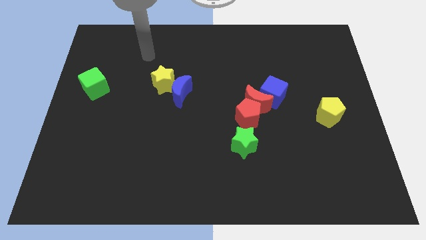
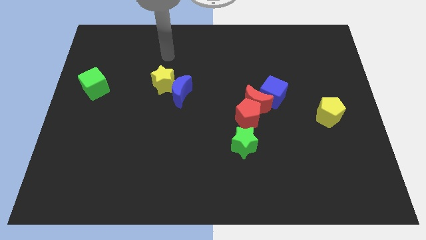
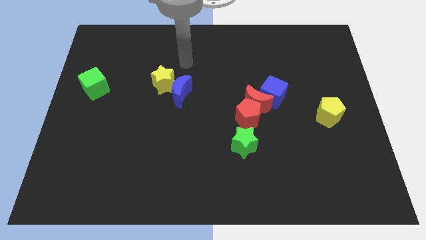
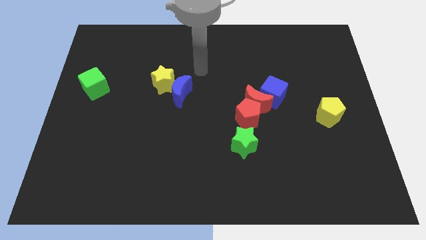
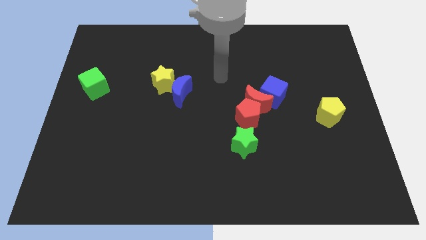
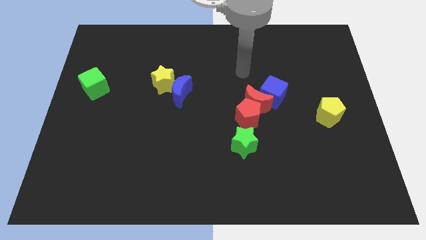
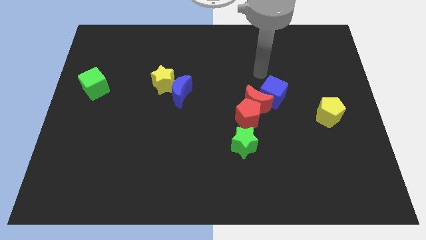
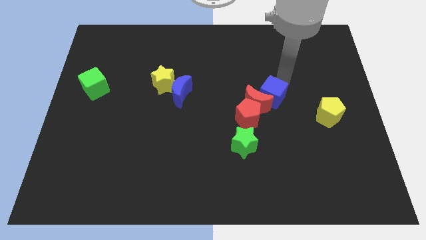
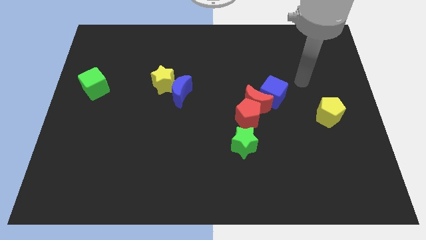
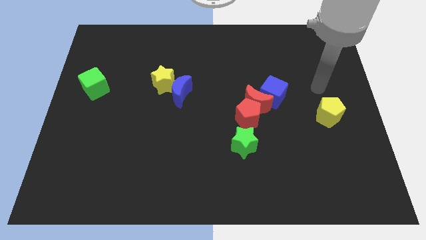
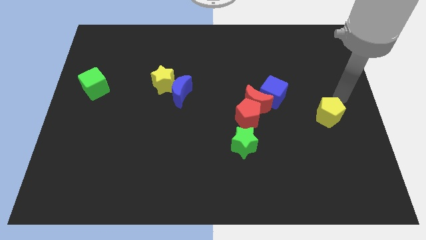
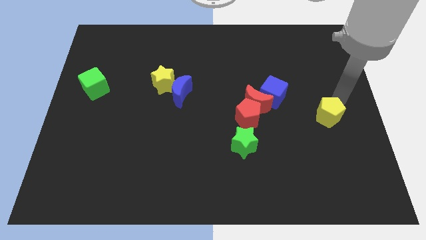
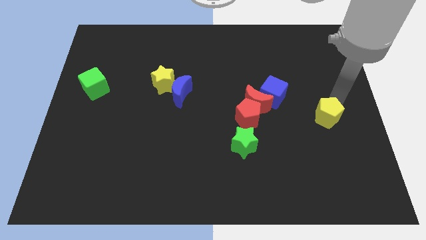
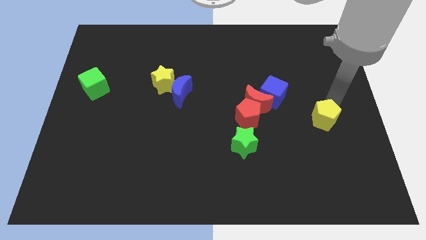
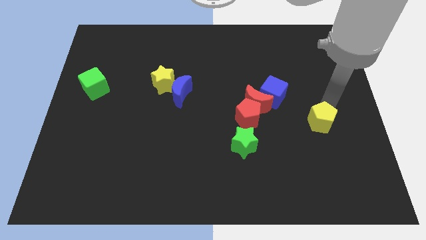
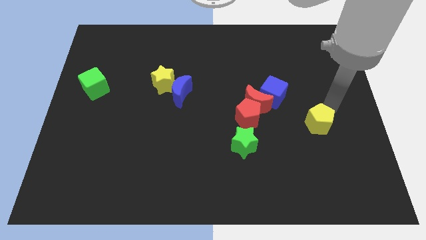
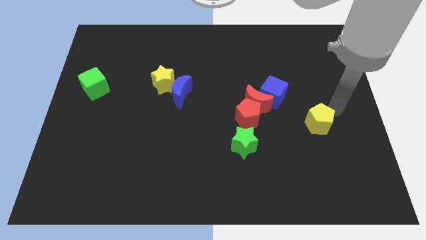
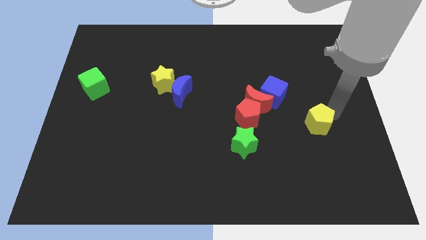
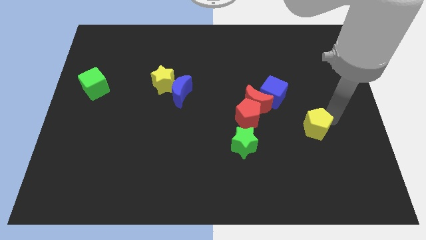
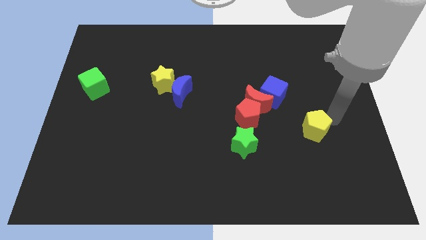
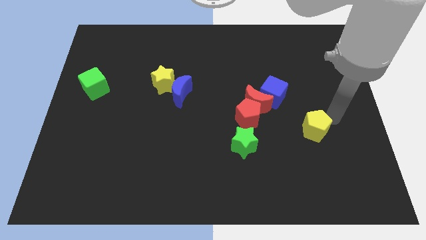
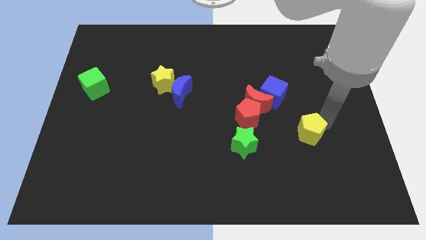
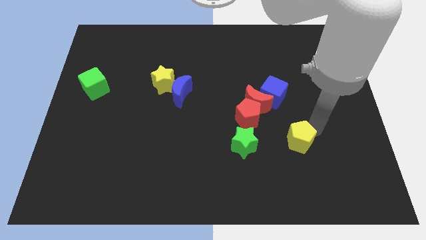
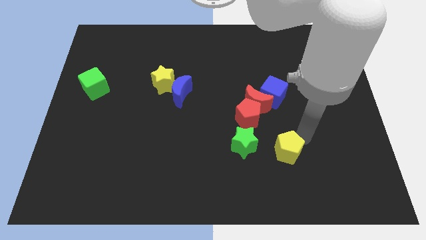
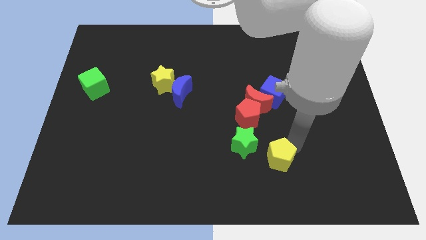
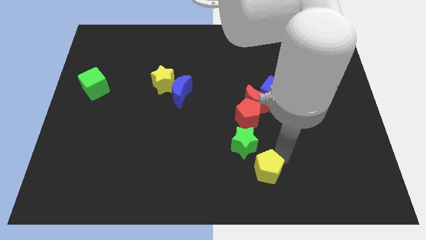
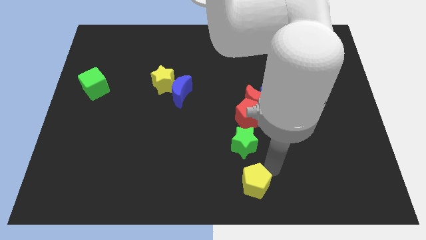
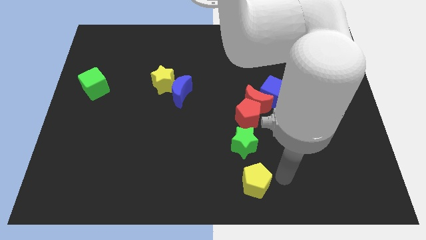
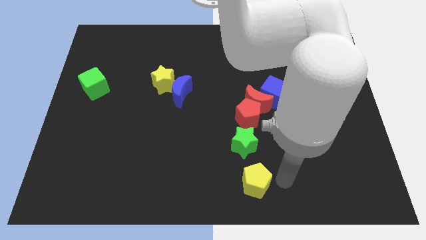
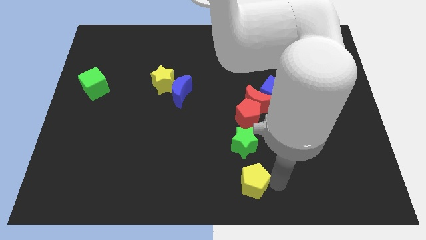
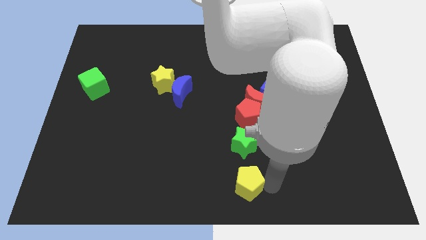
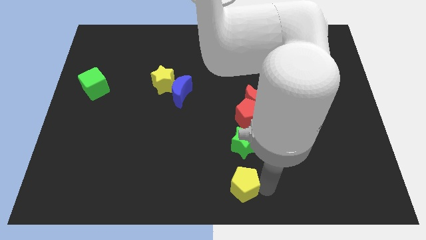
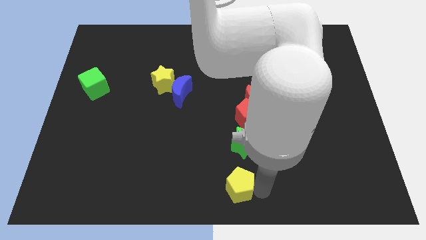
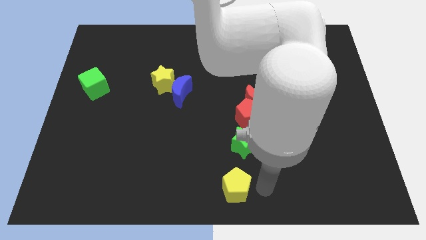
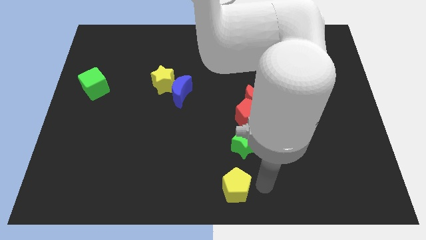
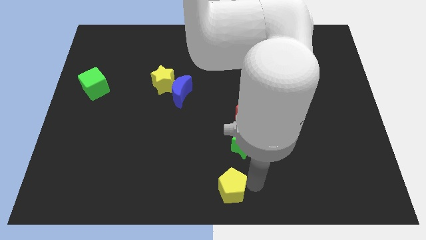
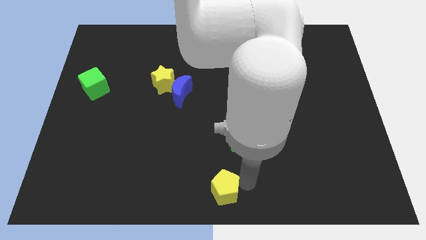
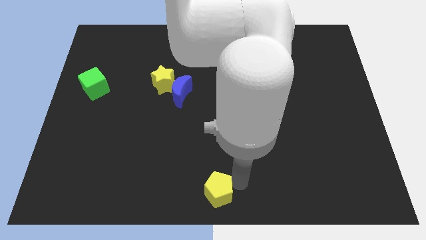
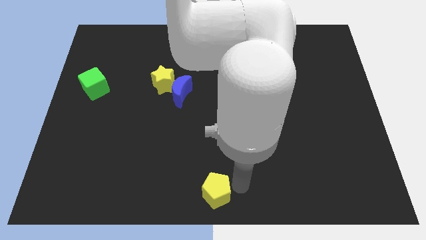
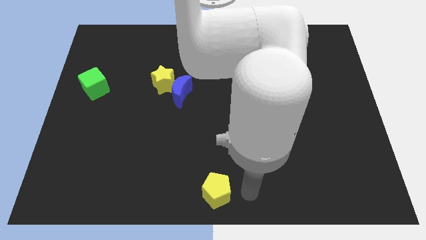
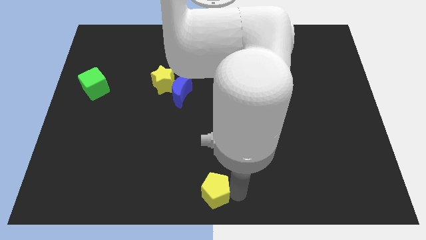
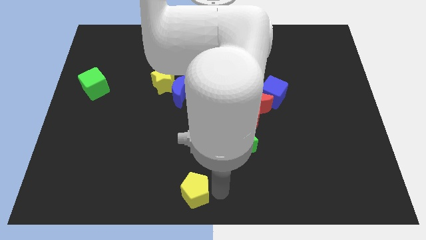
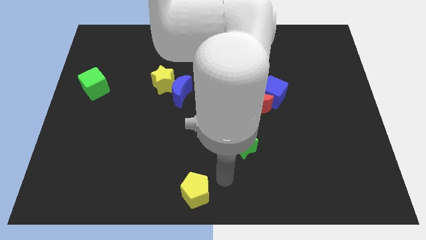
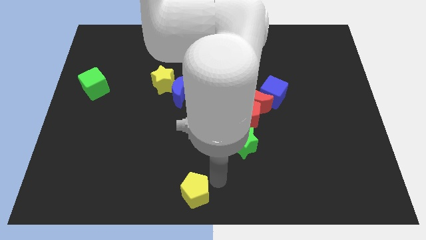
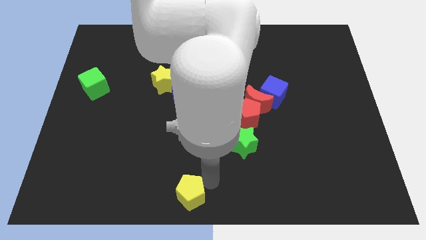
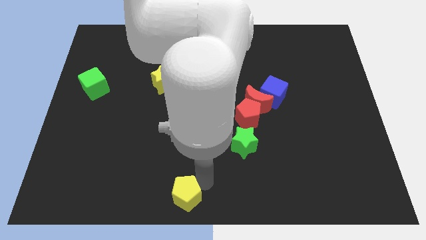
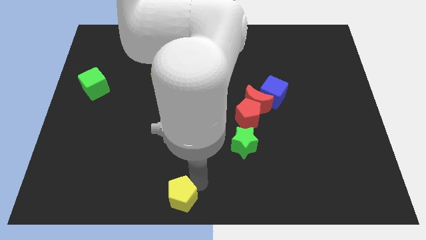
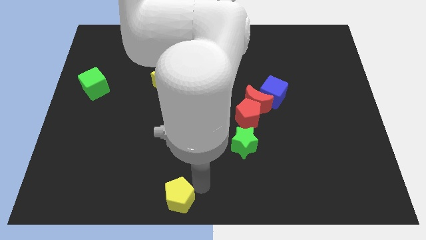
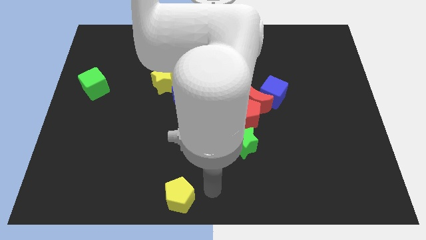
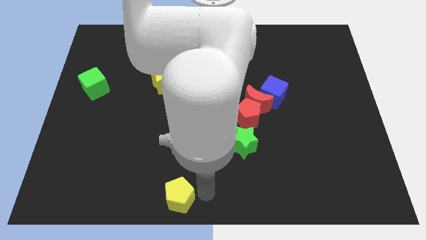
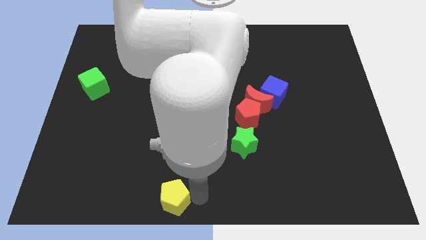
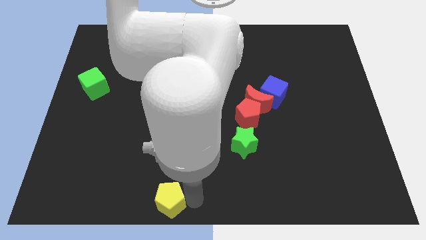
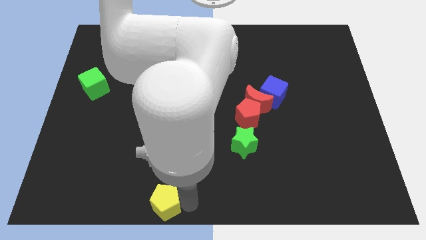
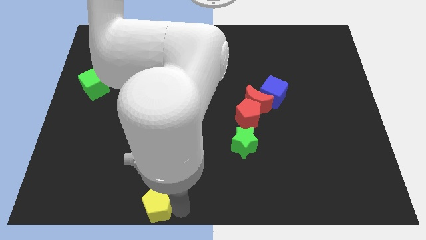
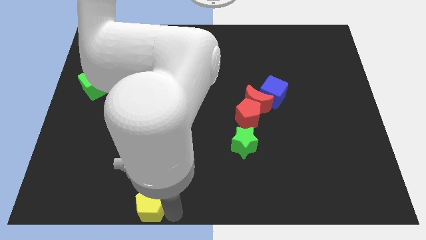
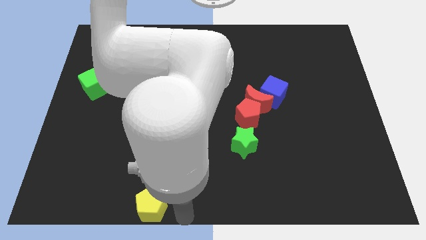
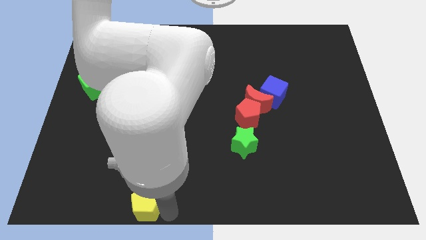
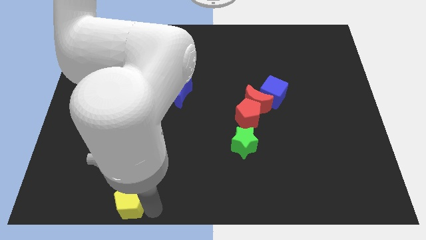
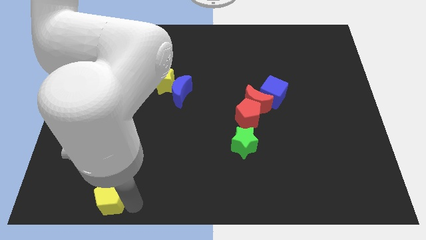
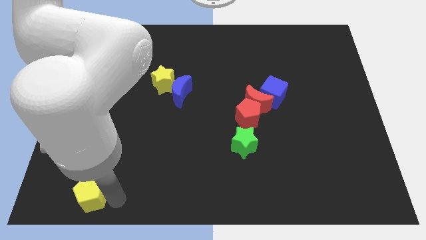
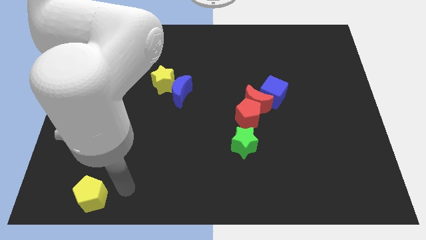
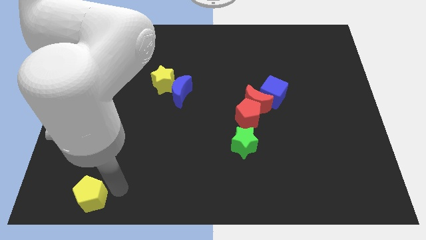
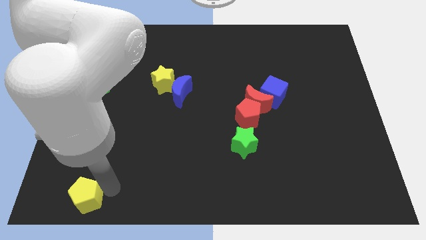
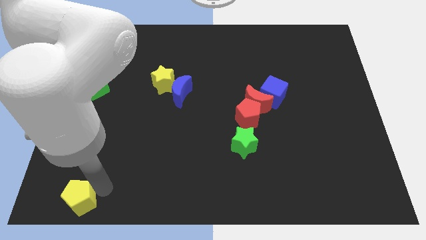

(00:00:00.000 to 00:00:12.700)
slide the yellow pentagon to the lower left corner

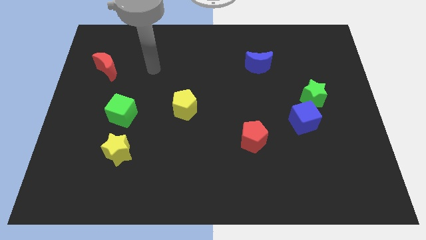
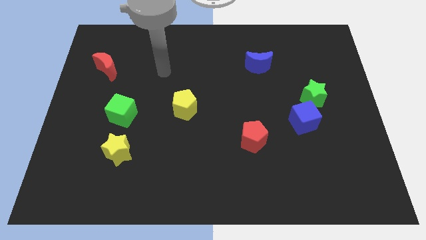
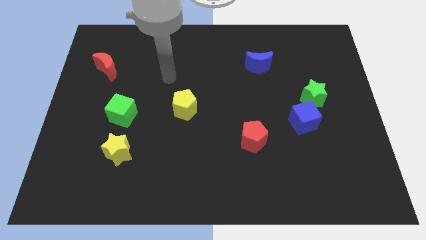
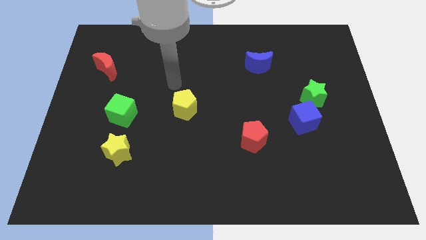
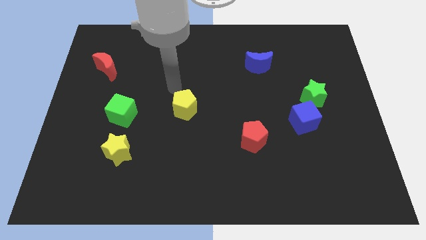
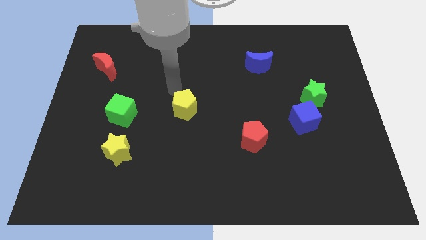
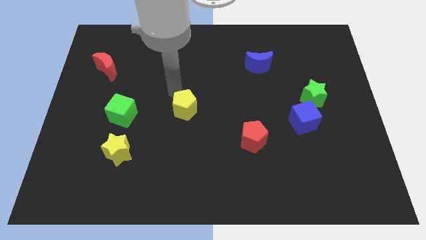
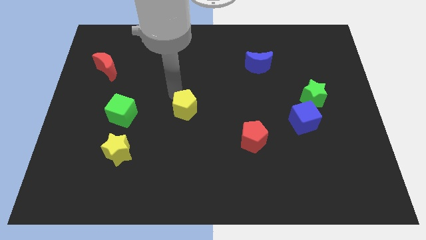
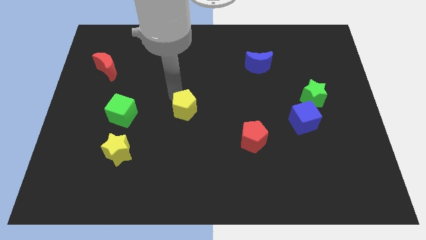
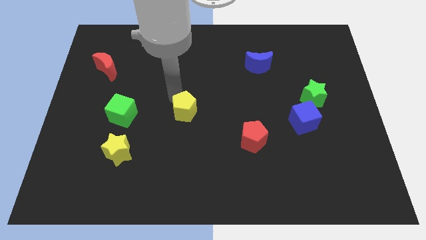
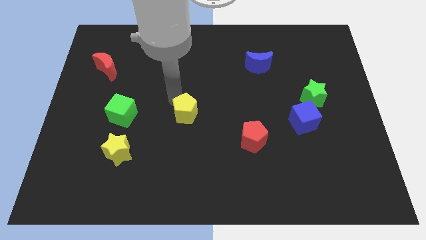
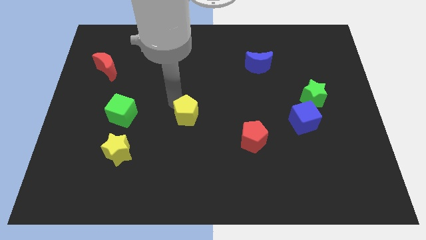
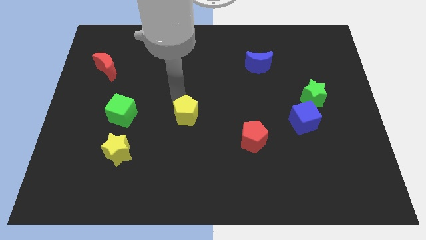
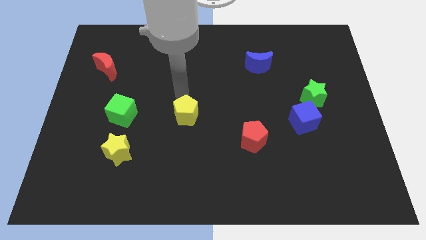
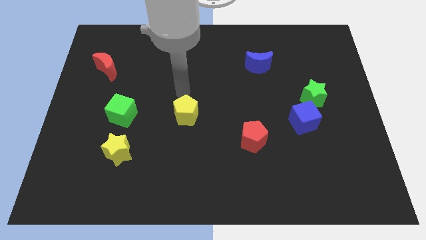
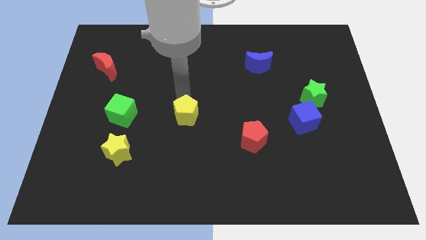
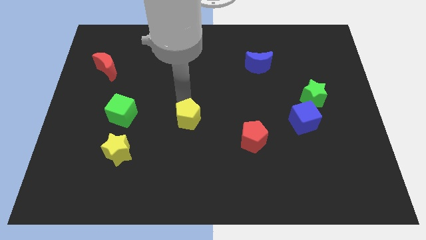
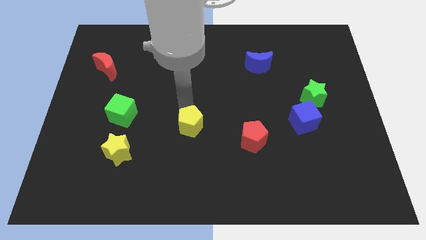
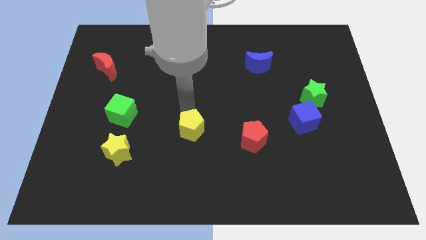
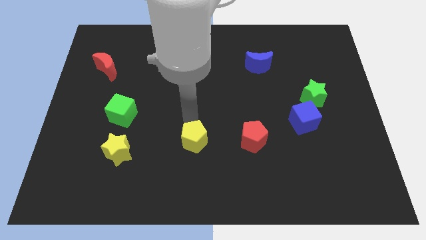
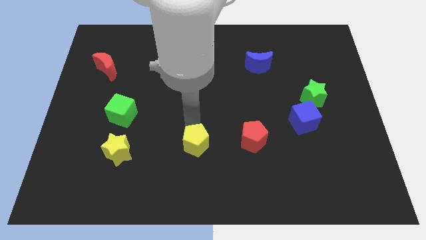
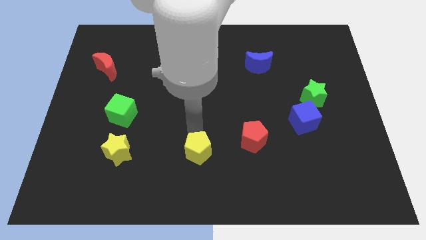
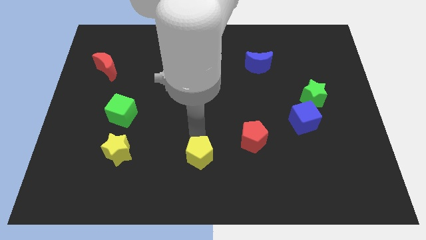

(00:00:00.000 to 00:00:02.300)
push the yellow pentagon to the bottom
